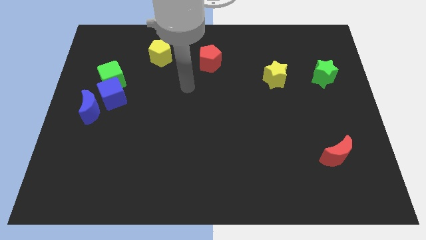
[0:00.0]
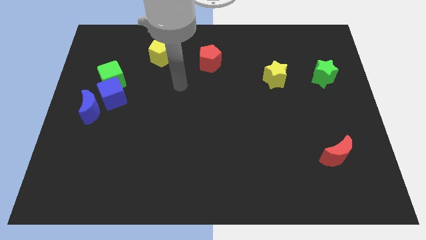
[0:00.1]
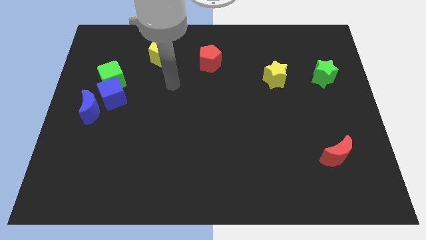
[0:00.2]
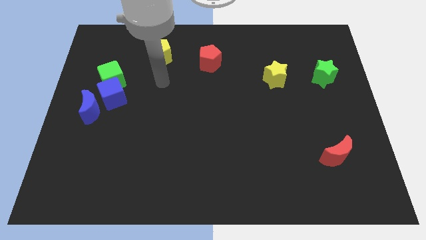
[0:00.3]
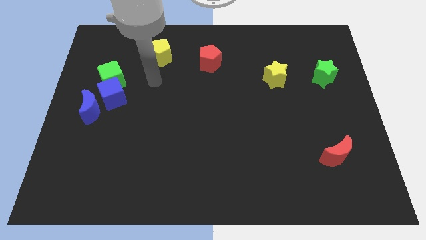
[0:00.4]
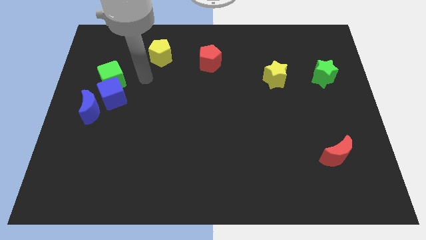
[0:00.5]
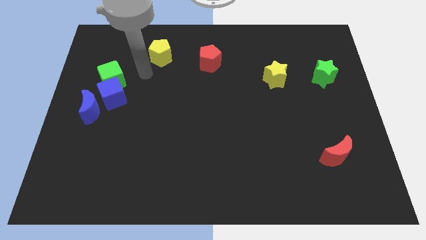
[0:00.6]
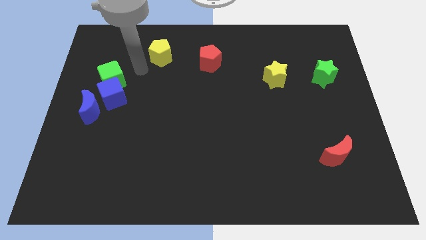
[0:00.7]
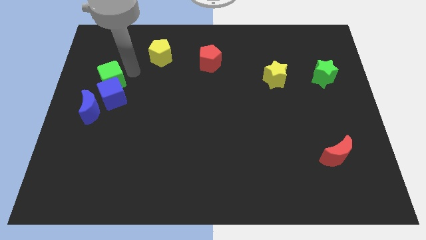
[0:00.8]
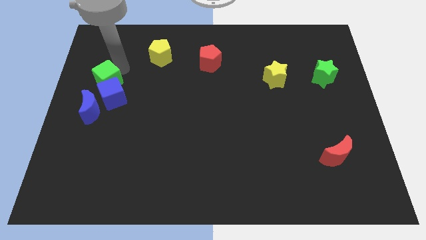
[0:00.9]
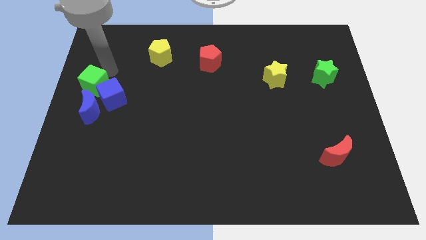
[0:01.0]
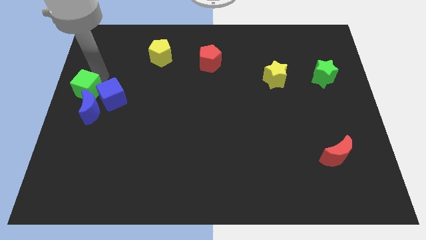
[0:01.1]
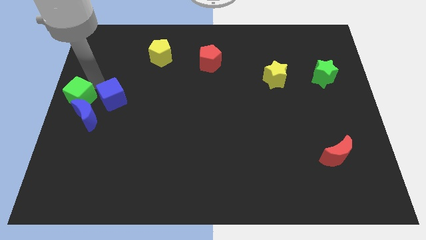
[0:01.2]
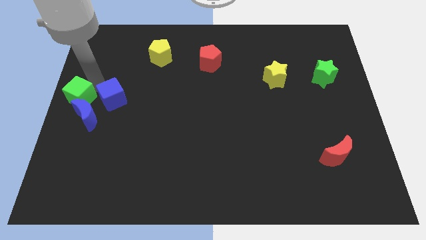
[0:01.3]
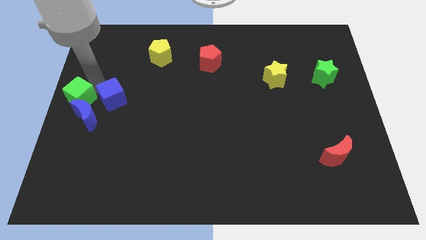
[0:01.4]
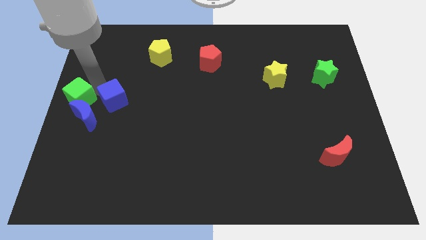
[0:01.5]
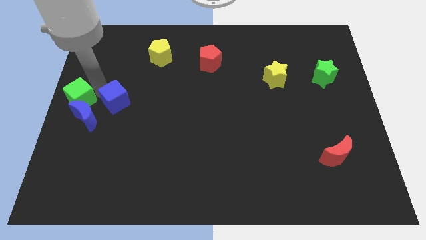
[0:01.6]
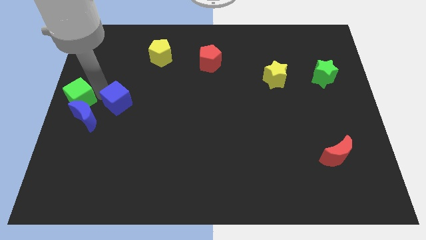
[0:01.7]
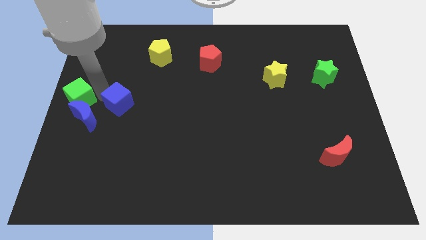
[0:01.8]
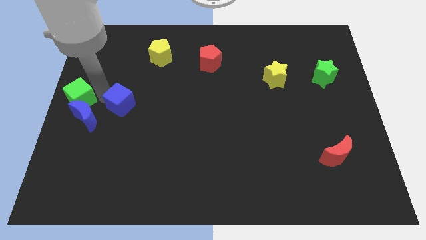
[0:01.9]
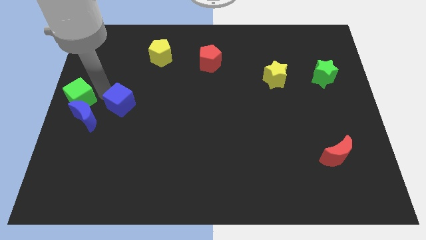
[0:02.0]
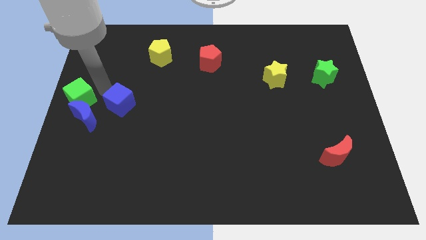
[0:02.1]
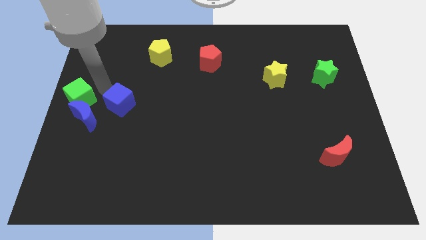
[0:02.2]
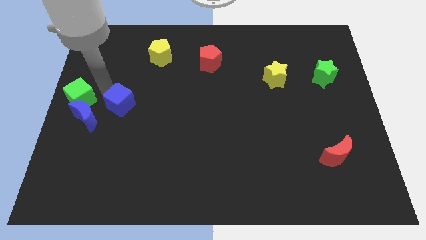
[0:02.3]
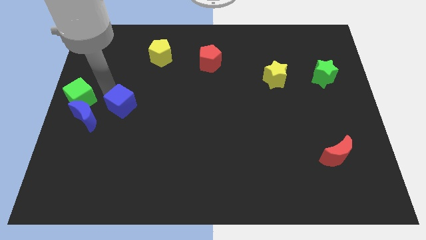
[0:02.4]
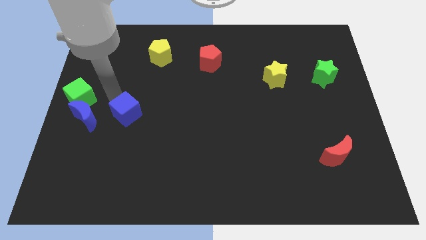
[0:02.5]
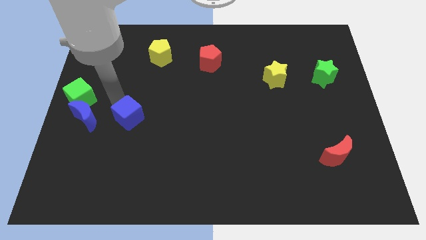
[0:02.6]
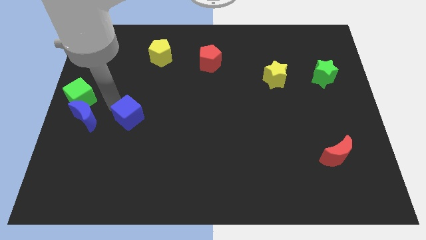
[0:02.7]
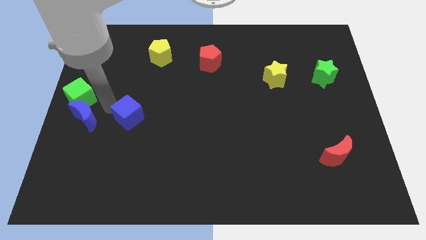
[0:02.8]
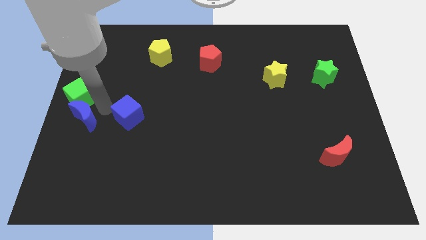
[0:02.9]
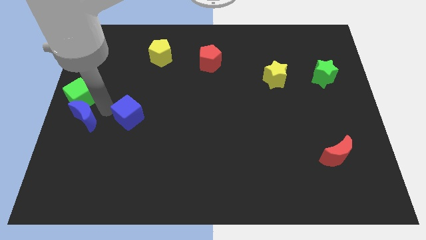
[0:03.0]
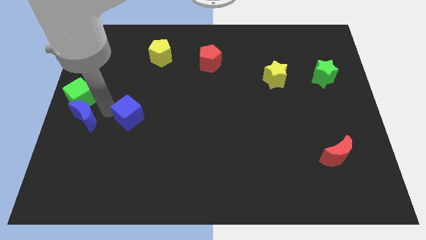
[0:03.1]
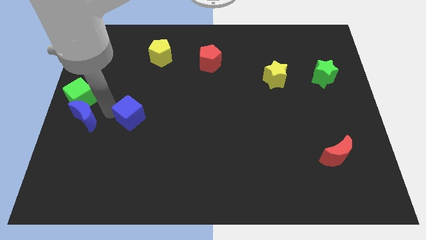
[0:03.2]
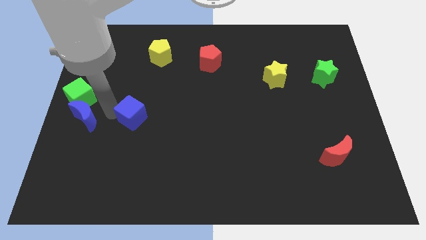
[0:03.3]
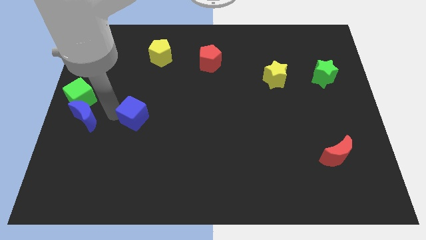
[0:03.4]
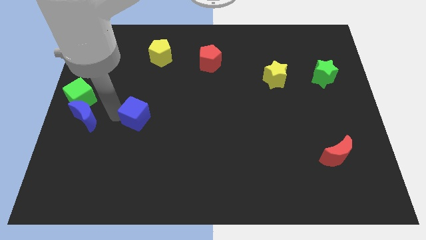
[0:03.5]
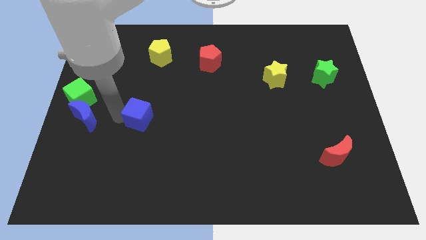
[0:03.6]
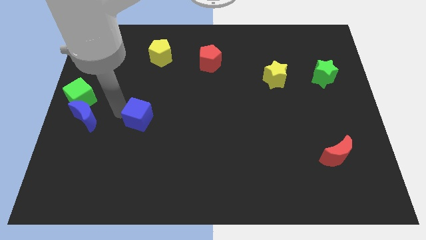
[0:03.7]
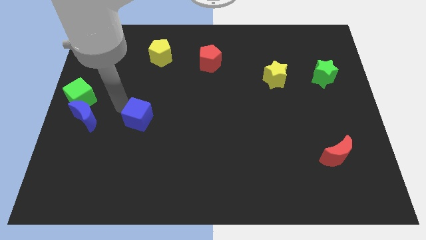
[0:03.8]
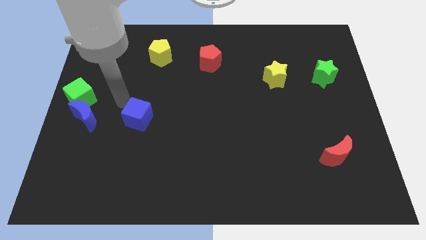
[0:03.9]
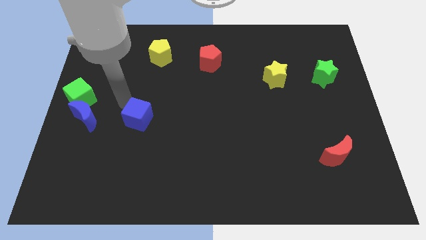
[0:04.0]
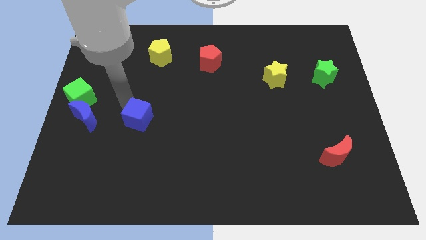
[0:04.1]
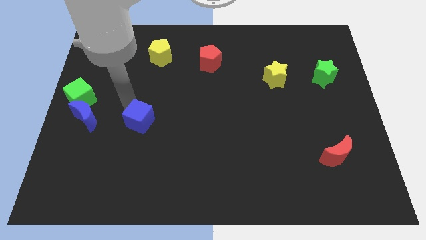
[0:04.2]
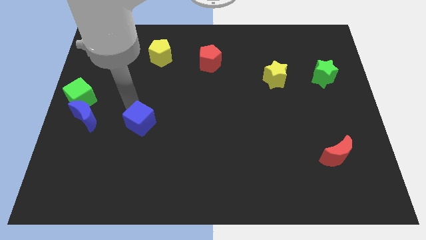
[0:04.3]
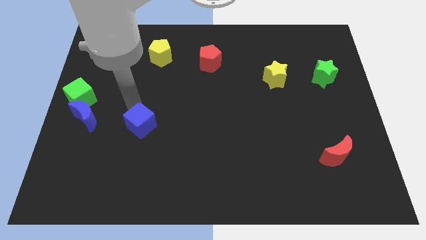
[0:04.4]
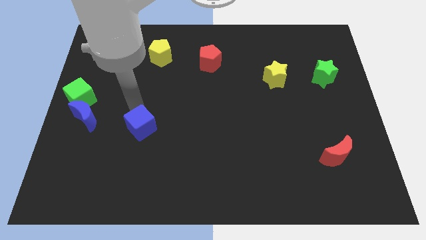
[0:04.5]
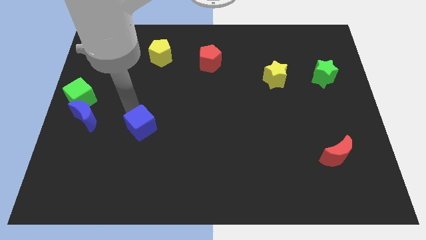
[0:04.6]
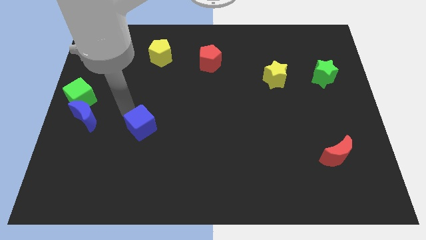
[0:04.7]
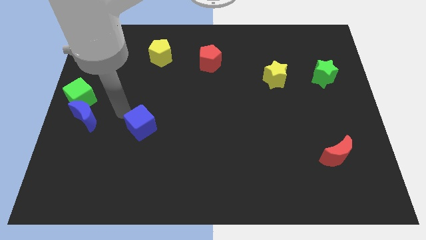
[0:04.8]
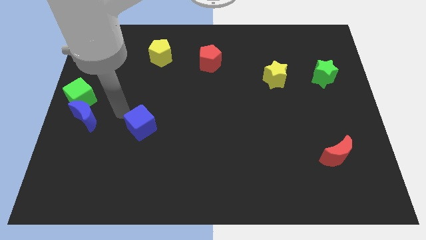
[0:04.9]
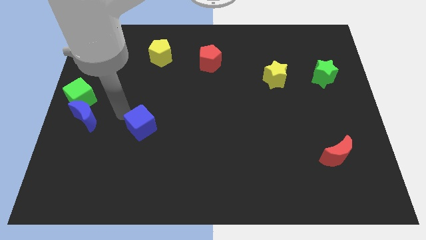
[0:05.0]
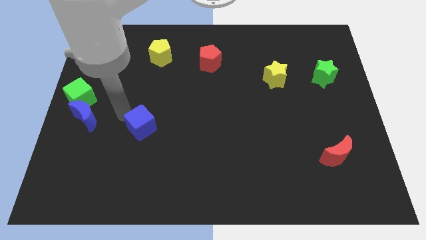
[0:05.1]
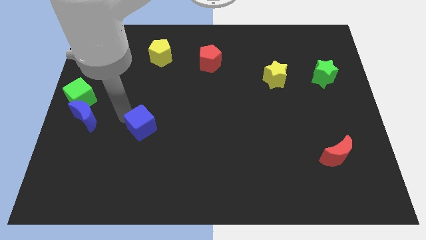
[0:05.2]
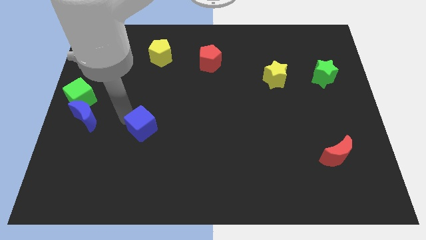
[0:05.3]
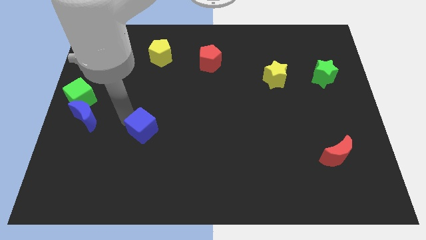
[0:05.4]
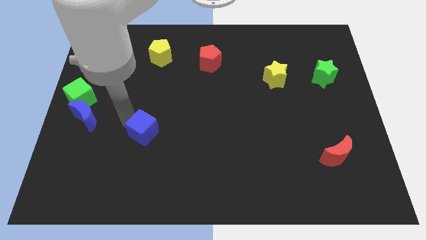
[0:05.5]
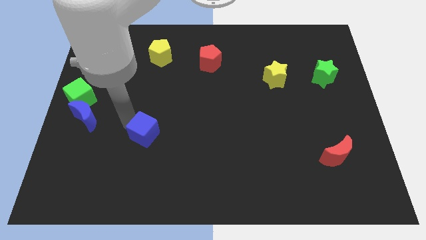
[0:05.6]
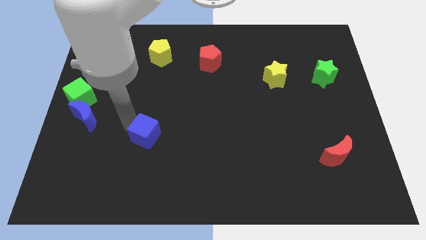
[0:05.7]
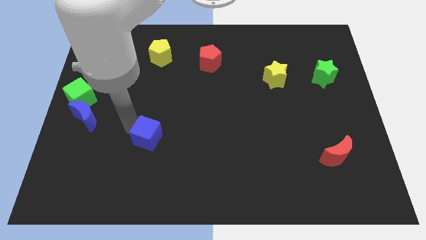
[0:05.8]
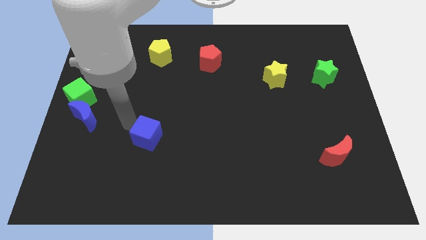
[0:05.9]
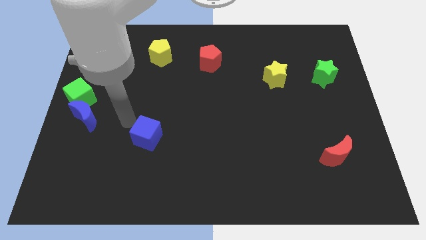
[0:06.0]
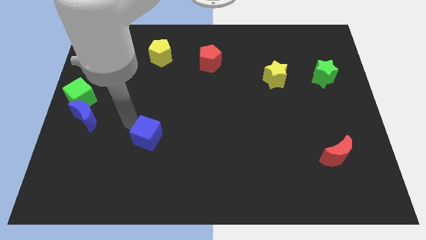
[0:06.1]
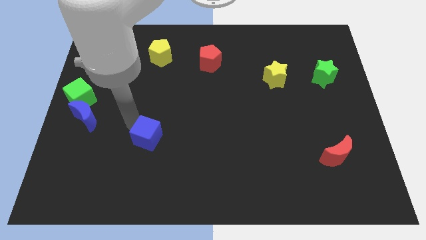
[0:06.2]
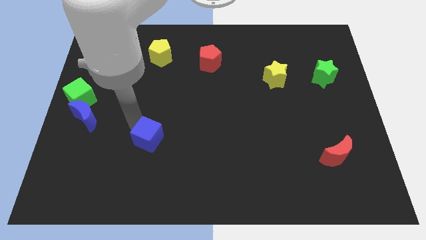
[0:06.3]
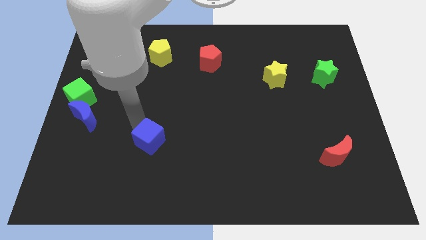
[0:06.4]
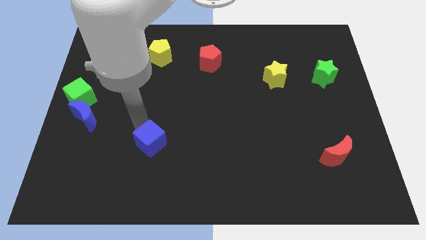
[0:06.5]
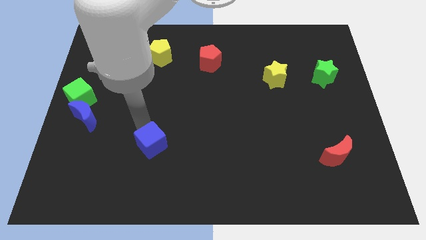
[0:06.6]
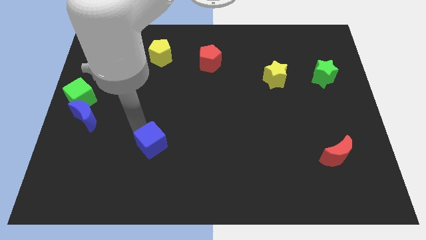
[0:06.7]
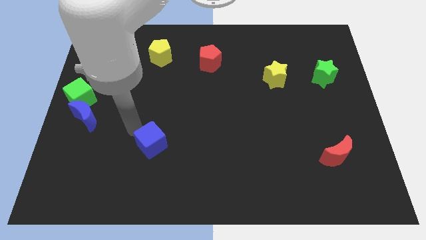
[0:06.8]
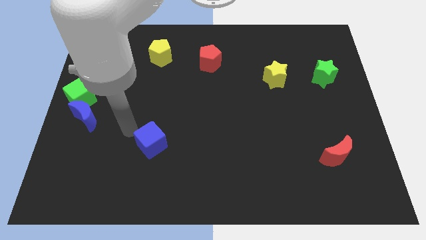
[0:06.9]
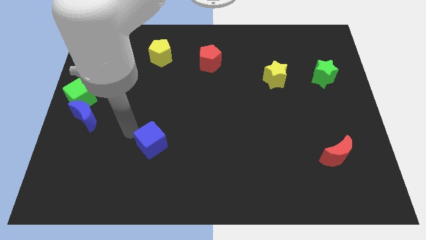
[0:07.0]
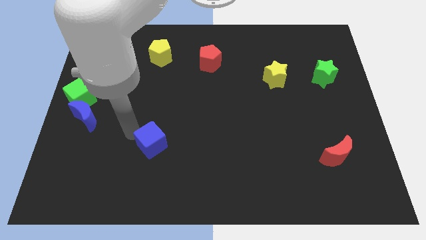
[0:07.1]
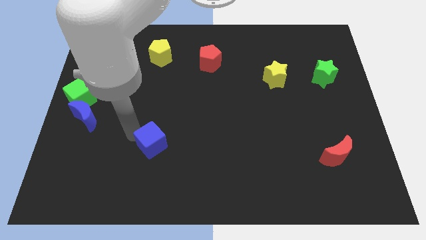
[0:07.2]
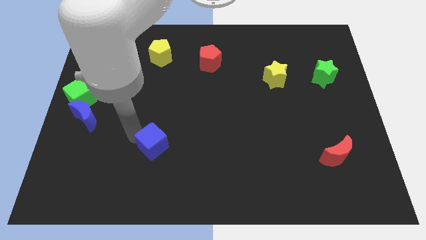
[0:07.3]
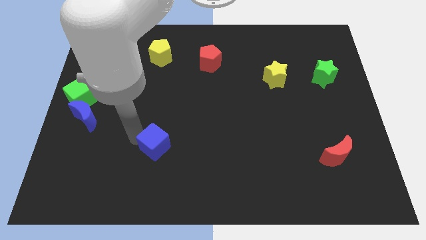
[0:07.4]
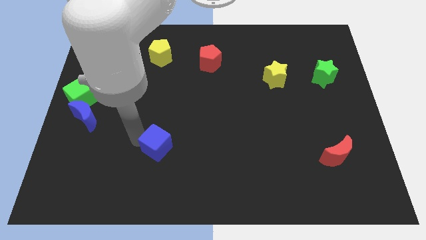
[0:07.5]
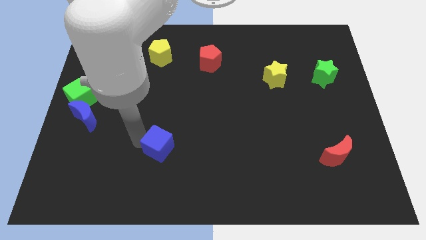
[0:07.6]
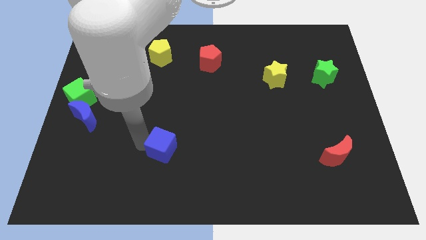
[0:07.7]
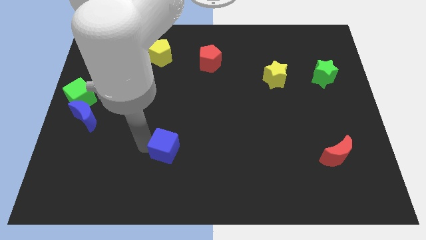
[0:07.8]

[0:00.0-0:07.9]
slide the blue cube down and then right

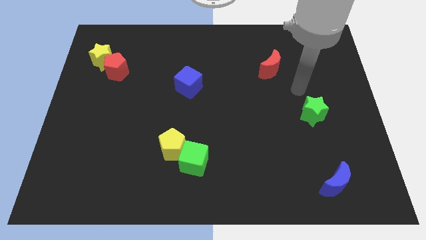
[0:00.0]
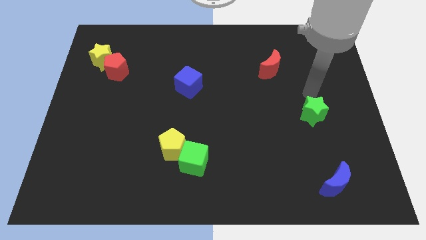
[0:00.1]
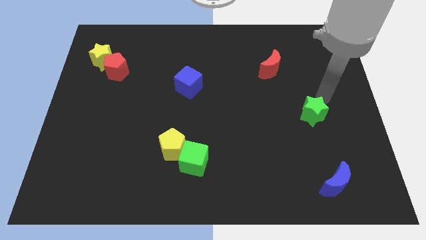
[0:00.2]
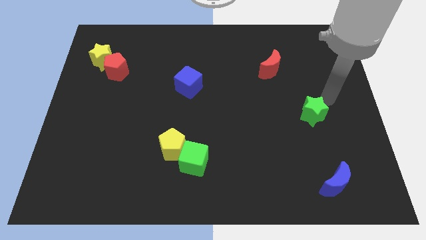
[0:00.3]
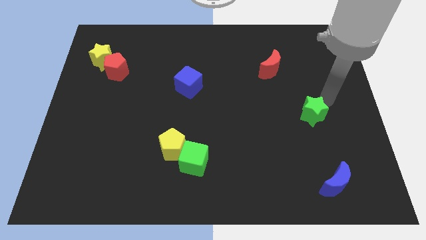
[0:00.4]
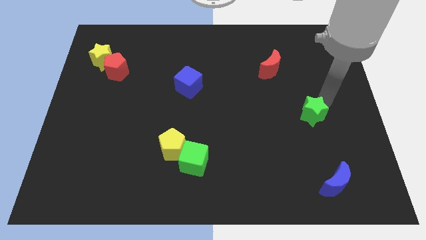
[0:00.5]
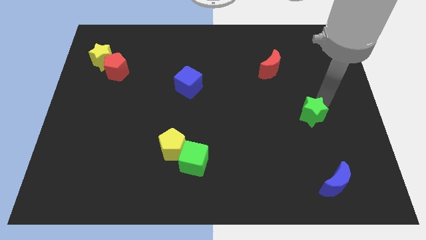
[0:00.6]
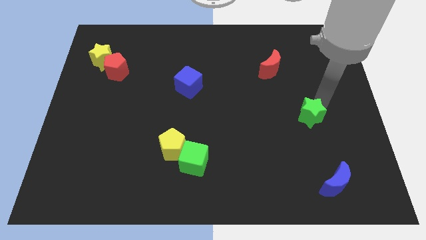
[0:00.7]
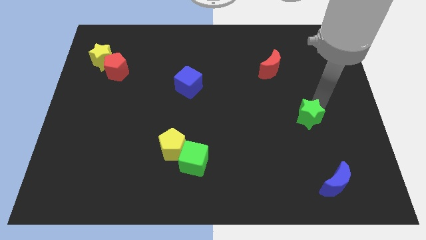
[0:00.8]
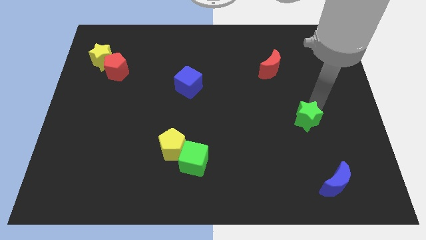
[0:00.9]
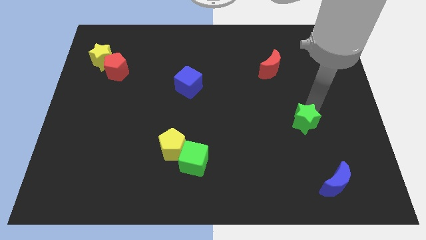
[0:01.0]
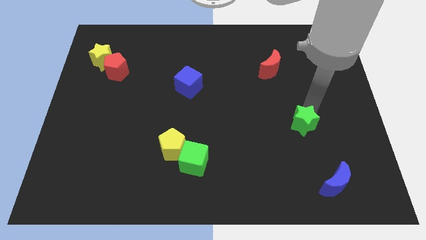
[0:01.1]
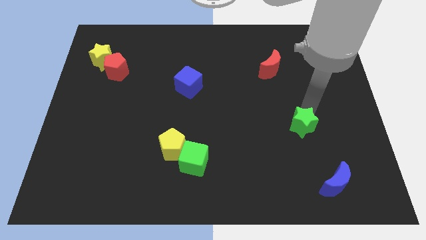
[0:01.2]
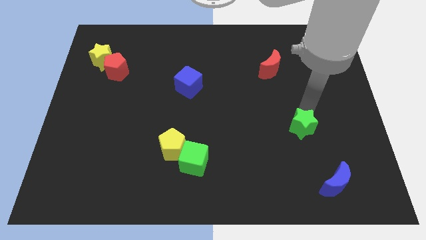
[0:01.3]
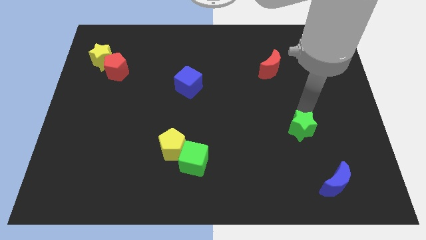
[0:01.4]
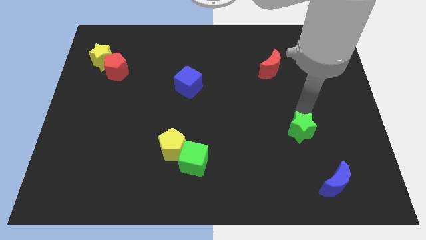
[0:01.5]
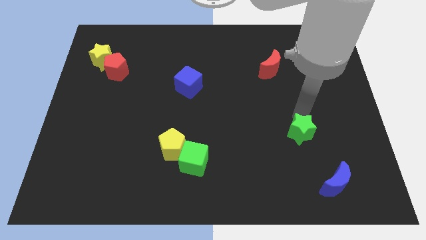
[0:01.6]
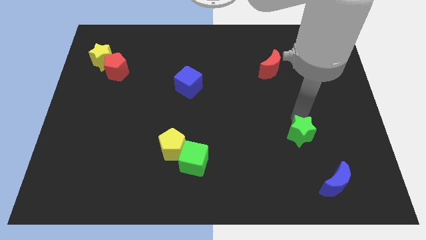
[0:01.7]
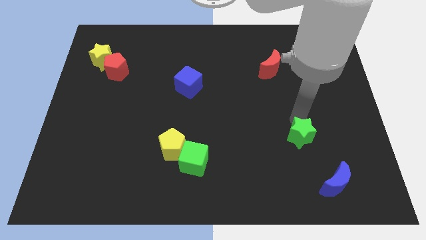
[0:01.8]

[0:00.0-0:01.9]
move the green star slightly downwards and to the left diagonally
